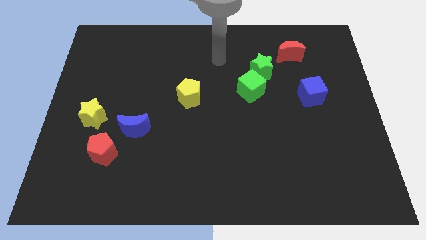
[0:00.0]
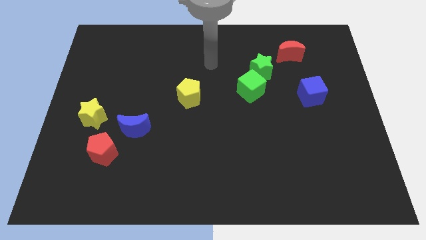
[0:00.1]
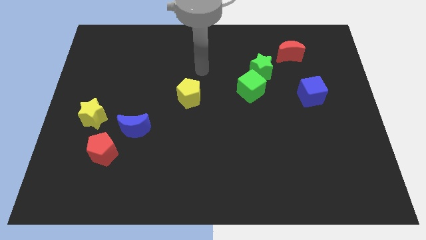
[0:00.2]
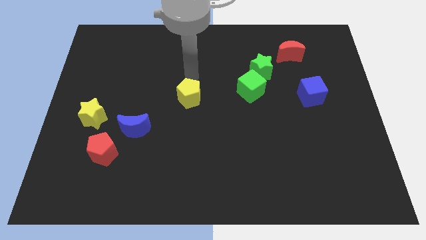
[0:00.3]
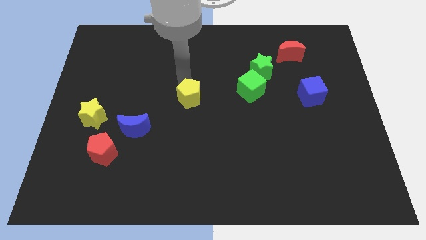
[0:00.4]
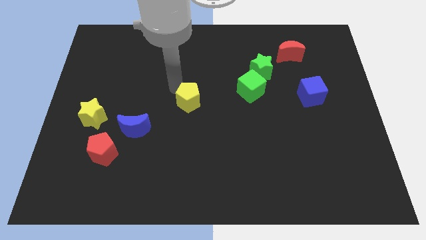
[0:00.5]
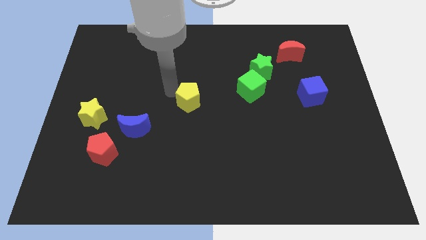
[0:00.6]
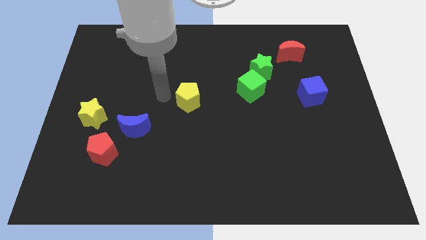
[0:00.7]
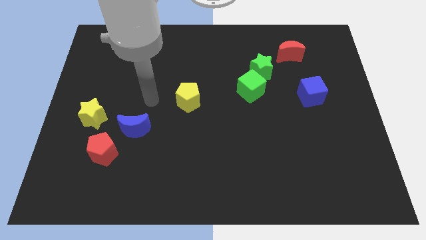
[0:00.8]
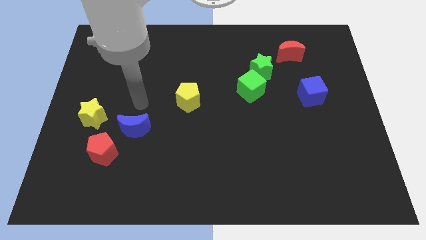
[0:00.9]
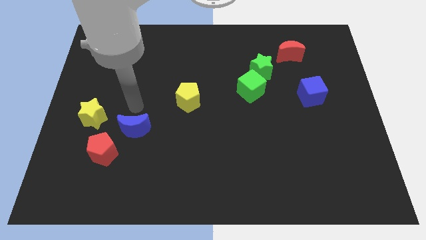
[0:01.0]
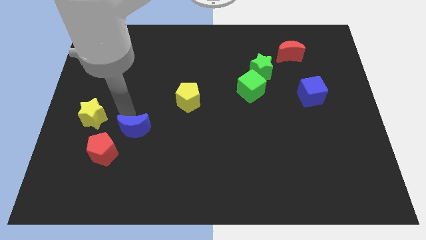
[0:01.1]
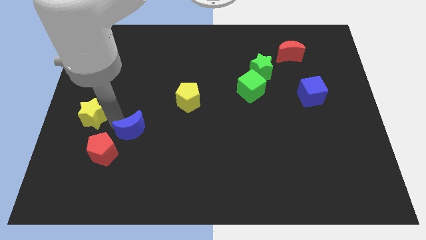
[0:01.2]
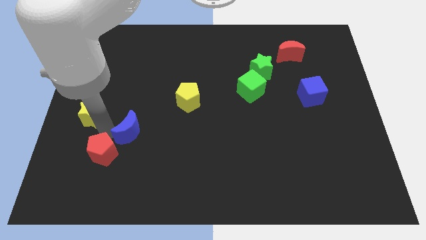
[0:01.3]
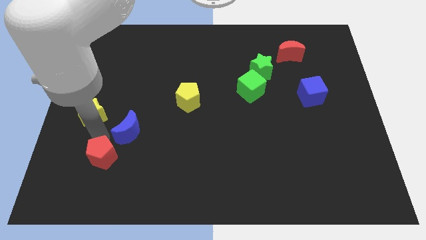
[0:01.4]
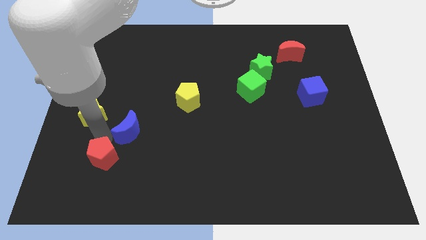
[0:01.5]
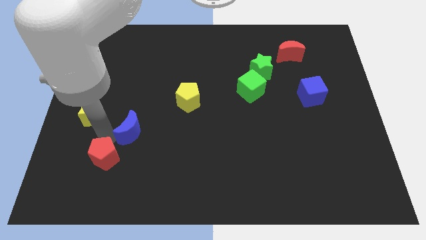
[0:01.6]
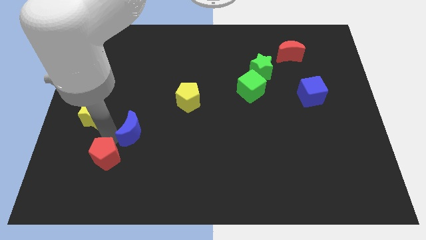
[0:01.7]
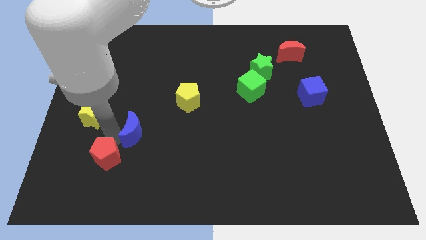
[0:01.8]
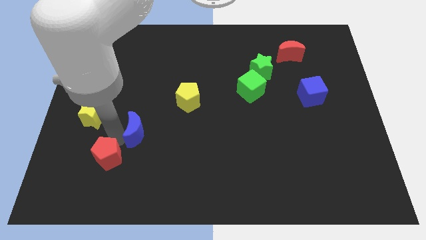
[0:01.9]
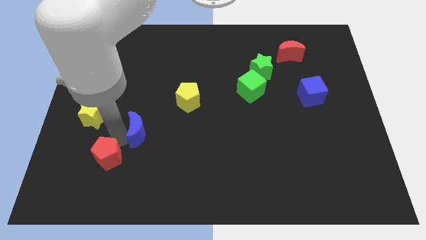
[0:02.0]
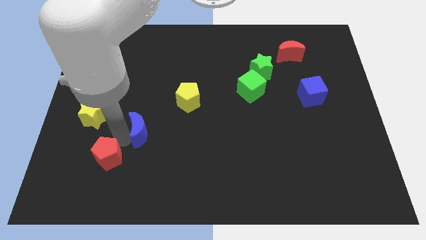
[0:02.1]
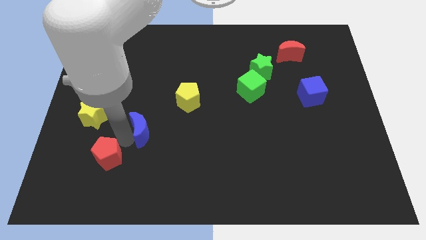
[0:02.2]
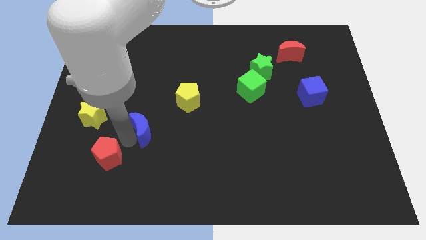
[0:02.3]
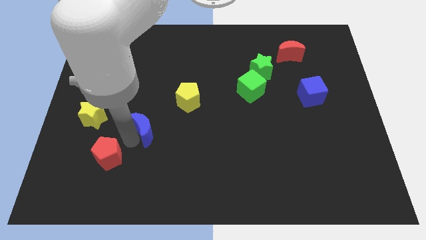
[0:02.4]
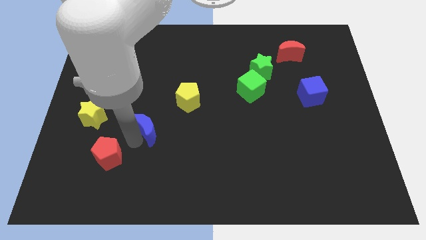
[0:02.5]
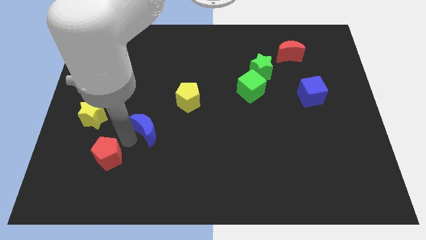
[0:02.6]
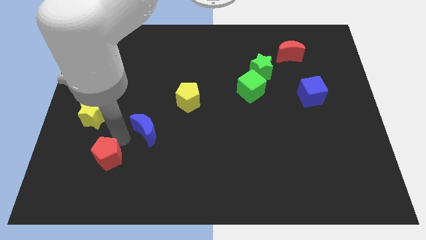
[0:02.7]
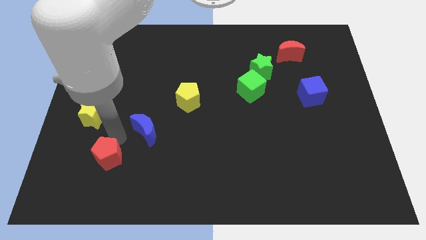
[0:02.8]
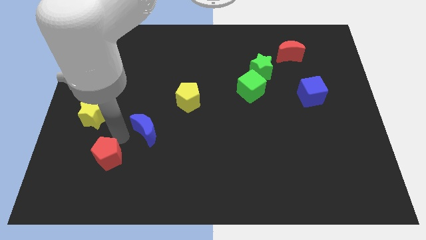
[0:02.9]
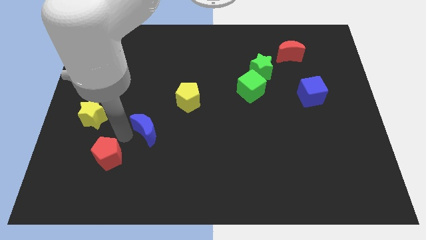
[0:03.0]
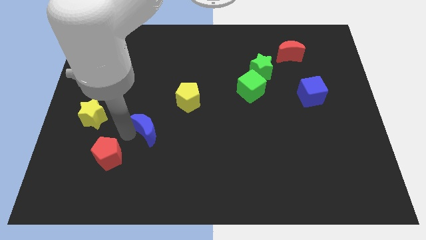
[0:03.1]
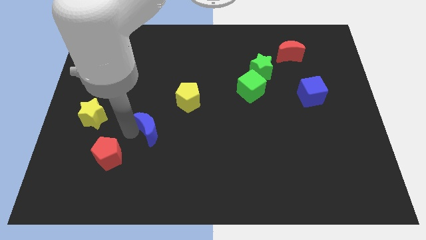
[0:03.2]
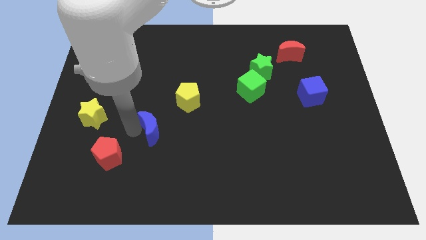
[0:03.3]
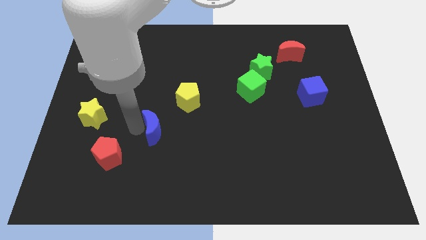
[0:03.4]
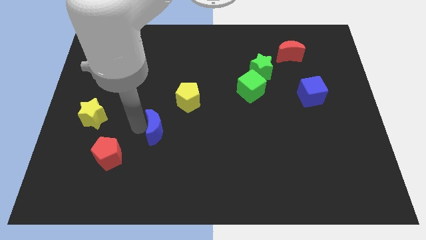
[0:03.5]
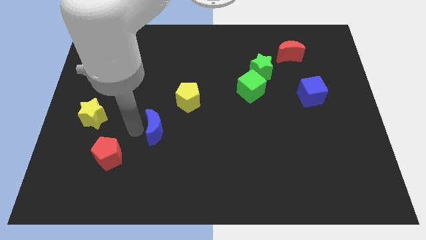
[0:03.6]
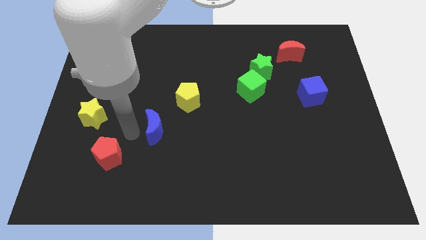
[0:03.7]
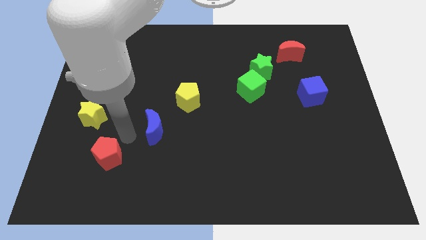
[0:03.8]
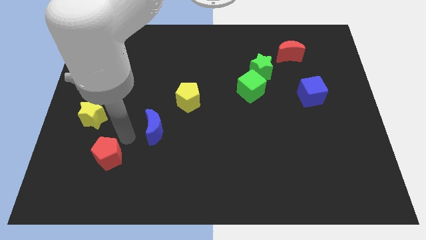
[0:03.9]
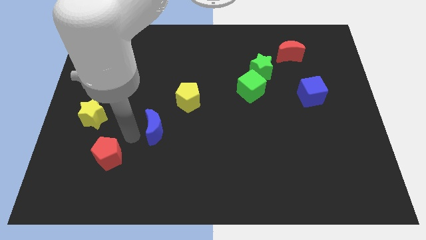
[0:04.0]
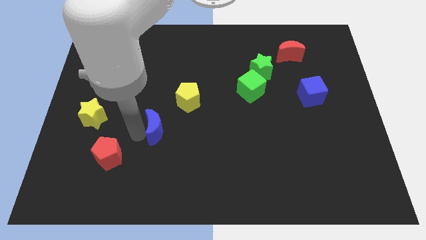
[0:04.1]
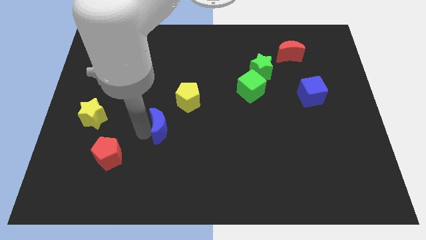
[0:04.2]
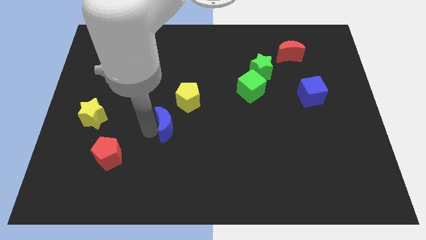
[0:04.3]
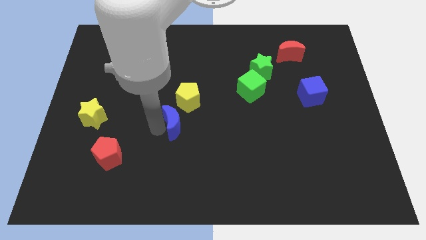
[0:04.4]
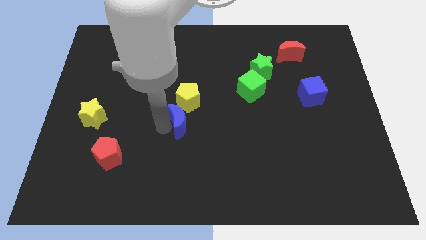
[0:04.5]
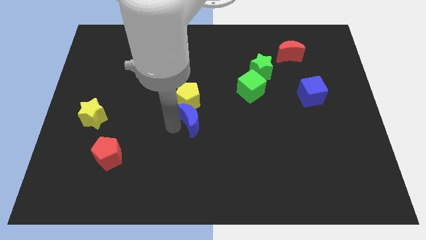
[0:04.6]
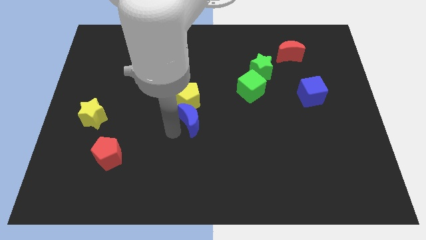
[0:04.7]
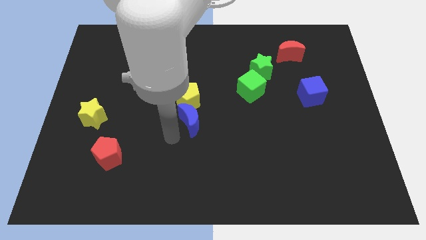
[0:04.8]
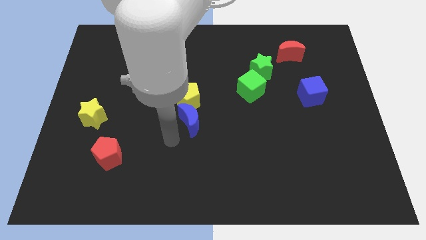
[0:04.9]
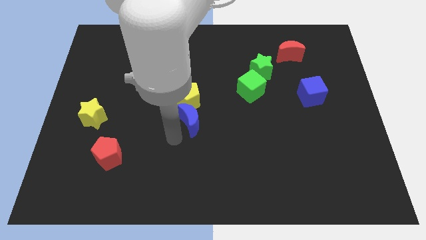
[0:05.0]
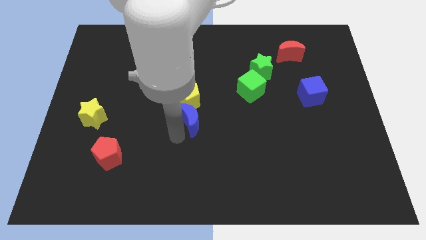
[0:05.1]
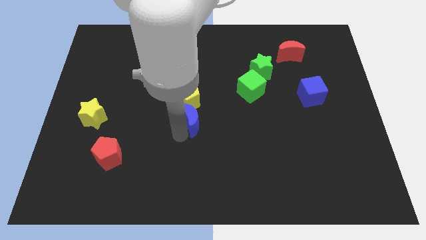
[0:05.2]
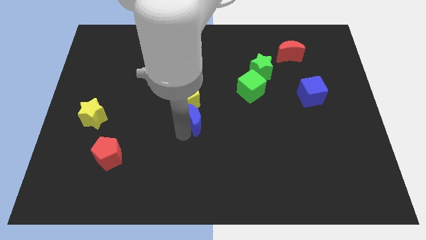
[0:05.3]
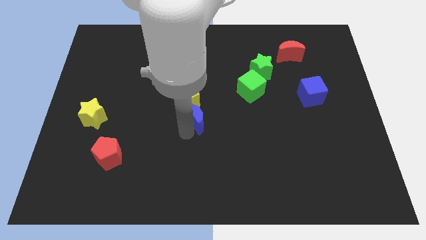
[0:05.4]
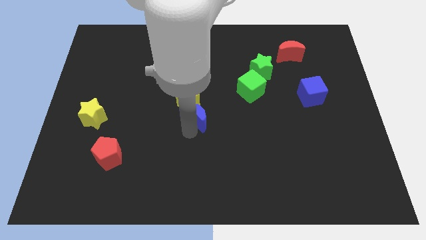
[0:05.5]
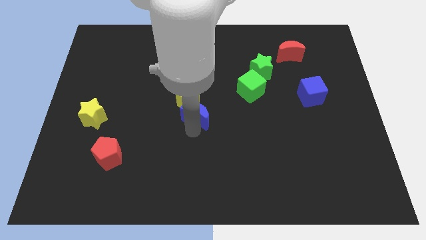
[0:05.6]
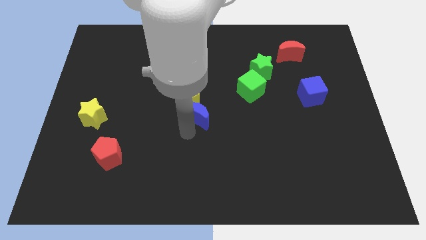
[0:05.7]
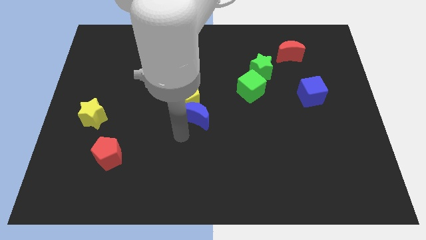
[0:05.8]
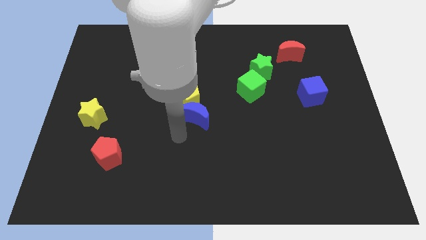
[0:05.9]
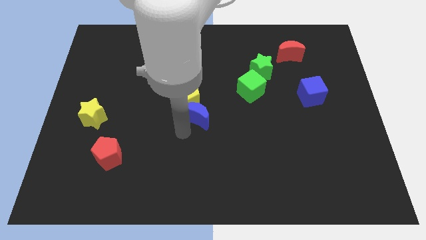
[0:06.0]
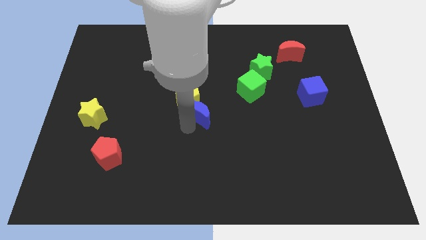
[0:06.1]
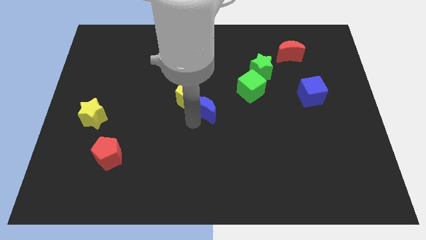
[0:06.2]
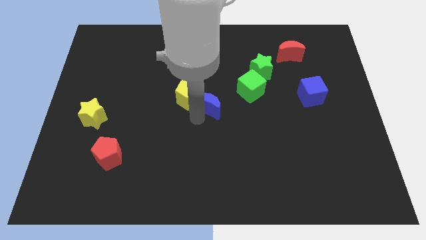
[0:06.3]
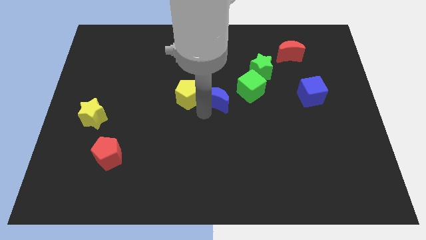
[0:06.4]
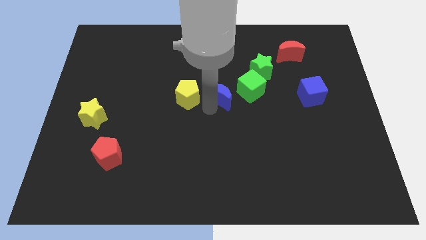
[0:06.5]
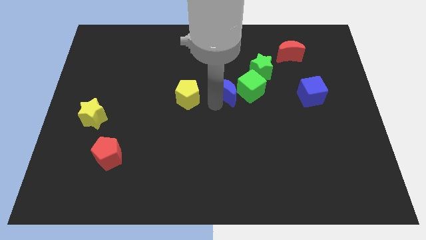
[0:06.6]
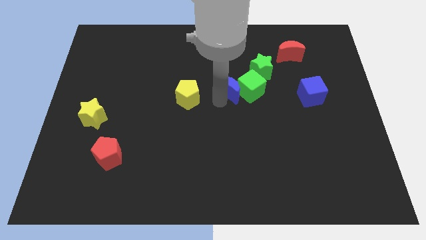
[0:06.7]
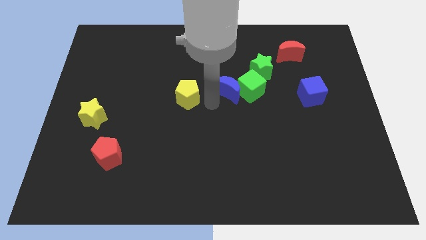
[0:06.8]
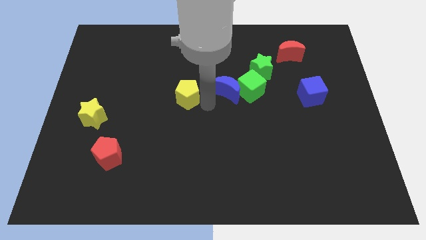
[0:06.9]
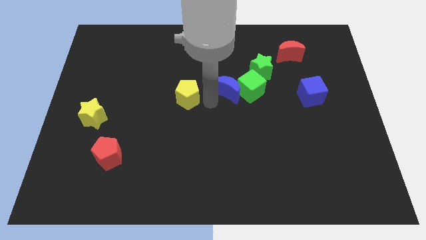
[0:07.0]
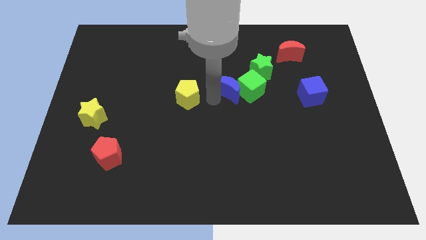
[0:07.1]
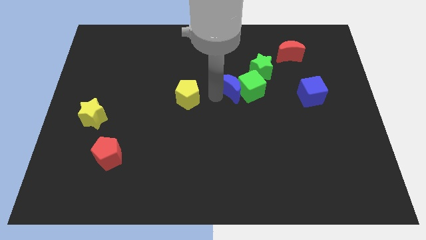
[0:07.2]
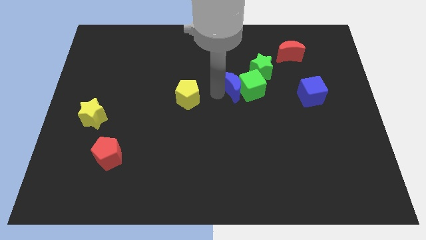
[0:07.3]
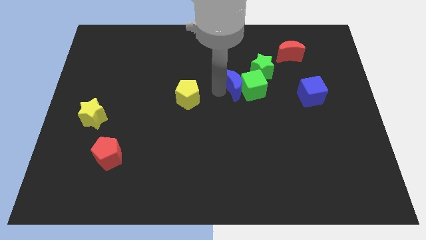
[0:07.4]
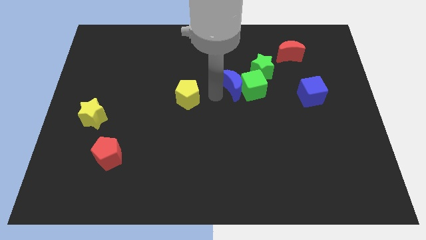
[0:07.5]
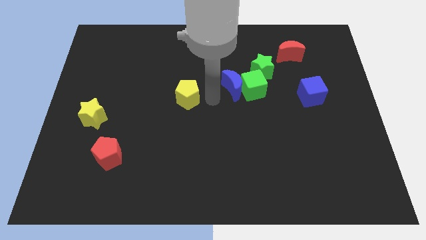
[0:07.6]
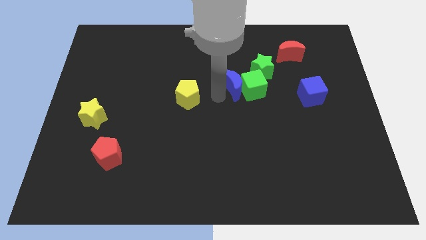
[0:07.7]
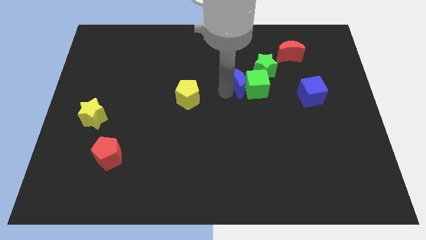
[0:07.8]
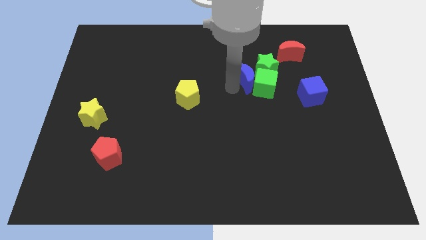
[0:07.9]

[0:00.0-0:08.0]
slide the blue moon next to the green star
